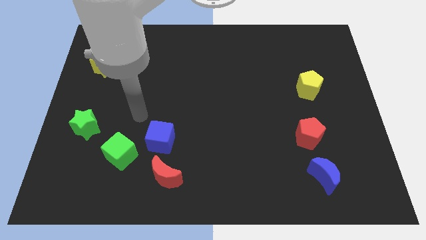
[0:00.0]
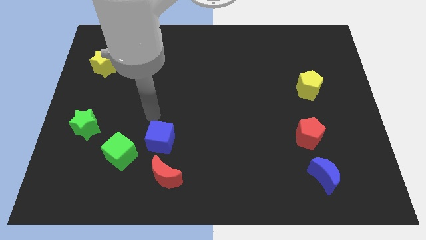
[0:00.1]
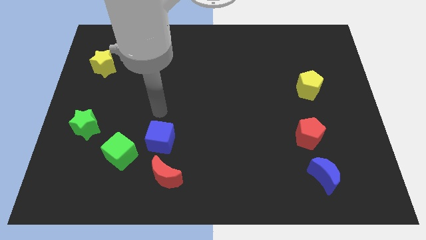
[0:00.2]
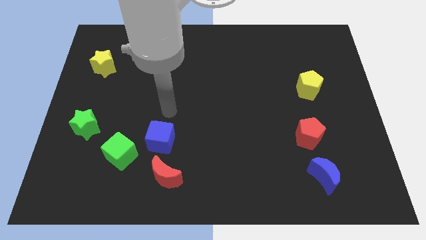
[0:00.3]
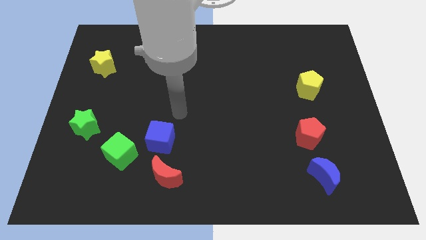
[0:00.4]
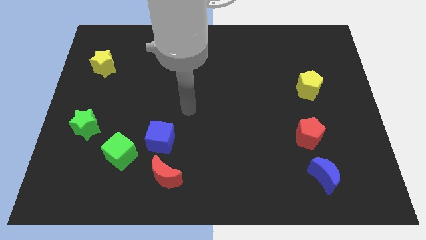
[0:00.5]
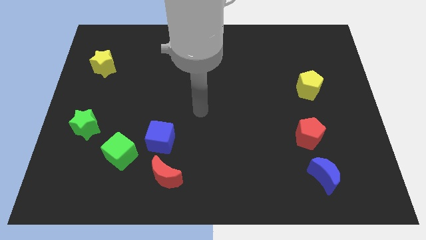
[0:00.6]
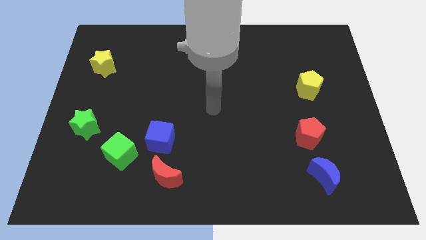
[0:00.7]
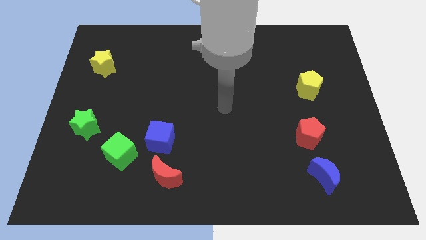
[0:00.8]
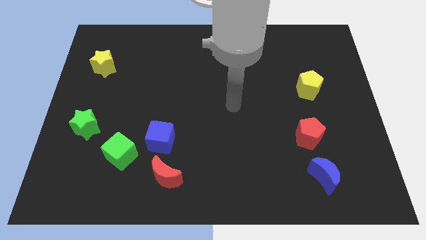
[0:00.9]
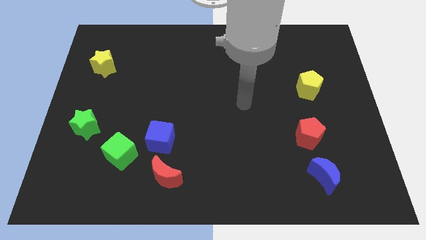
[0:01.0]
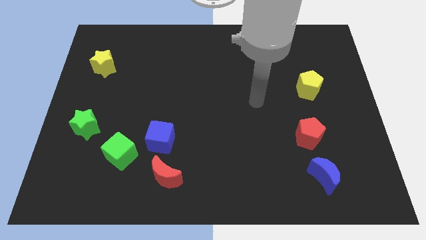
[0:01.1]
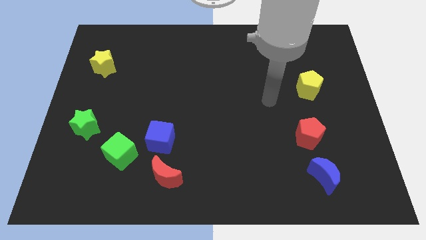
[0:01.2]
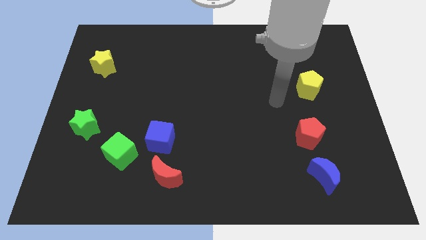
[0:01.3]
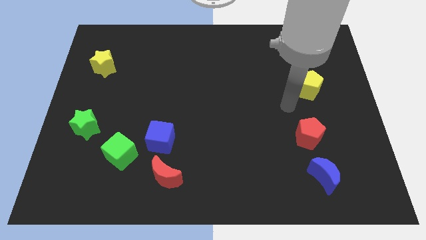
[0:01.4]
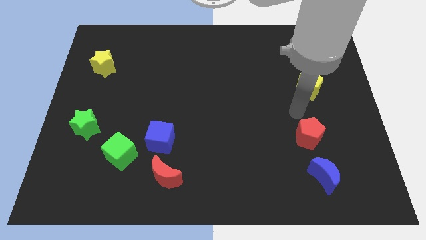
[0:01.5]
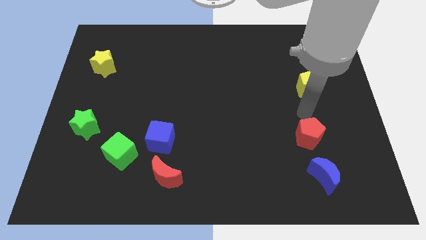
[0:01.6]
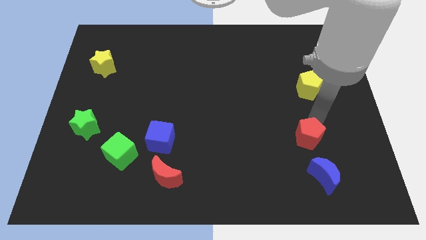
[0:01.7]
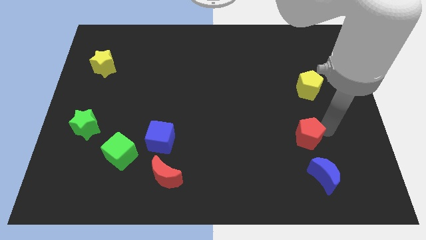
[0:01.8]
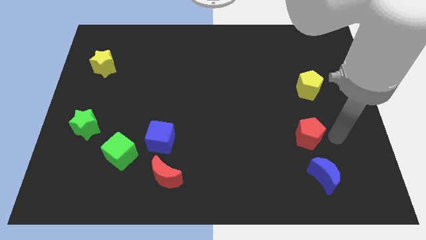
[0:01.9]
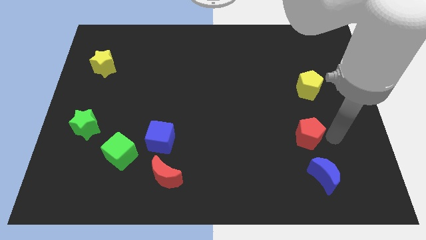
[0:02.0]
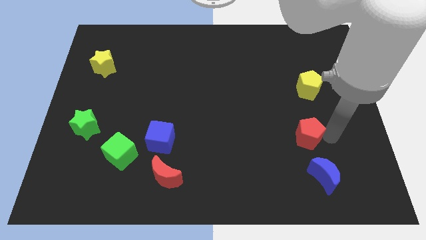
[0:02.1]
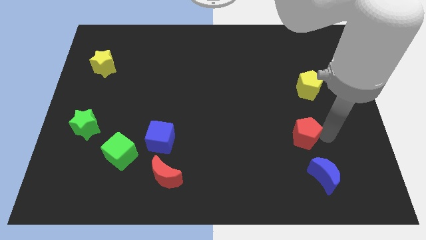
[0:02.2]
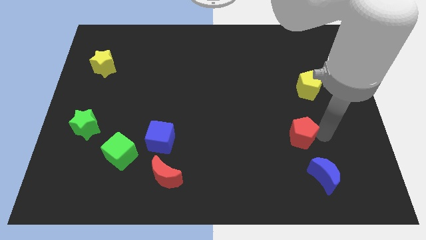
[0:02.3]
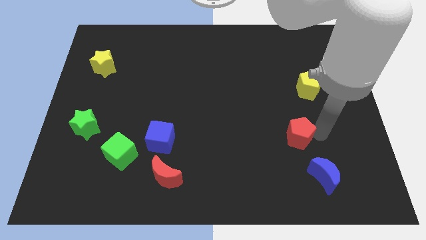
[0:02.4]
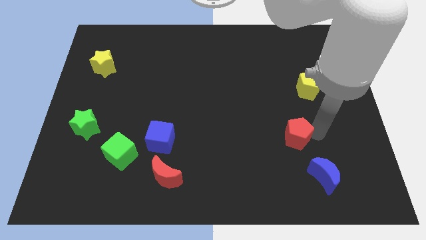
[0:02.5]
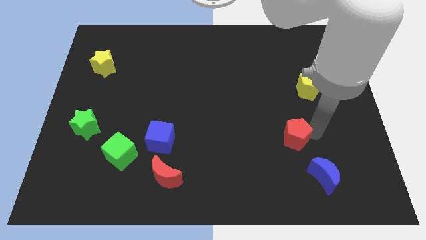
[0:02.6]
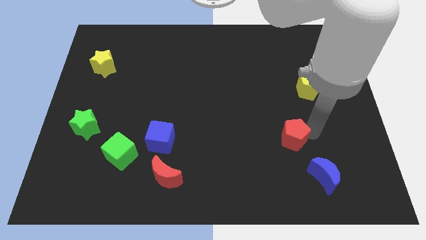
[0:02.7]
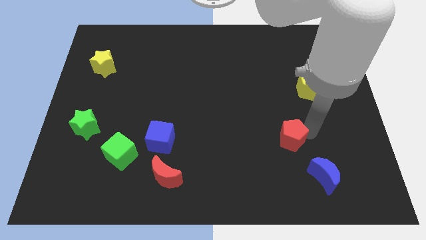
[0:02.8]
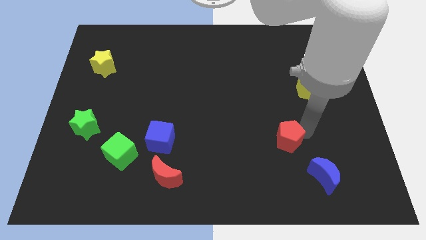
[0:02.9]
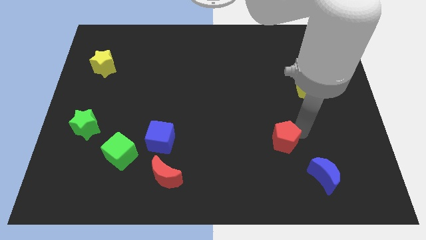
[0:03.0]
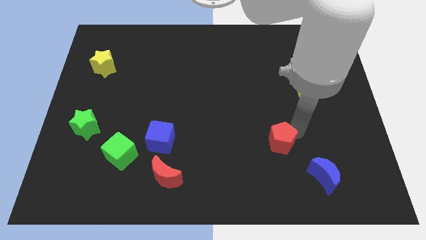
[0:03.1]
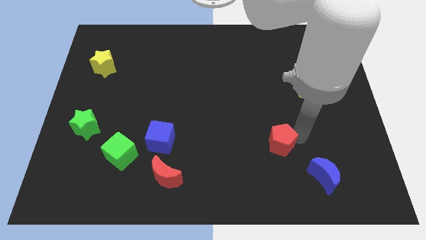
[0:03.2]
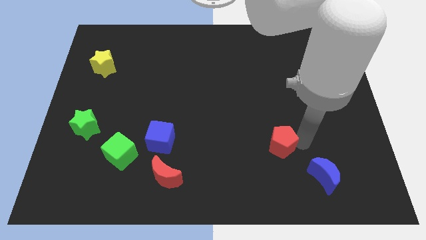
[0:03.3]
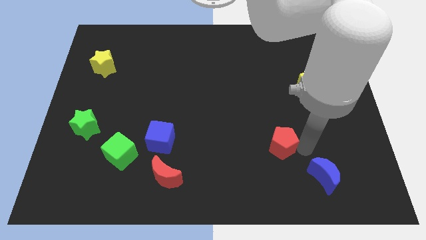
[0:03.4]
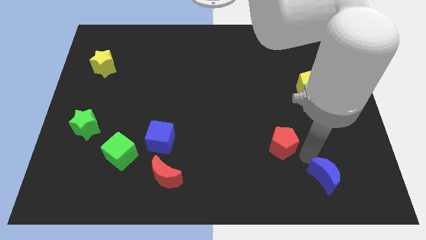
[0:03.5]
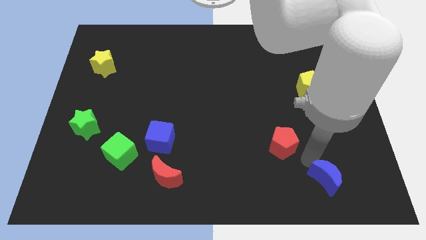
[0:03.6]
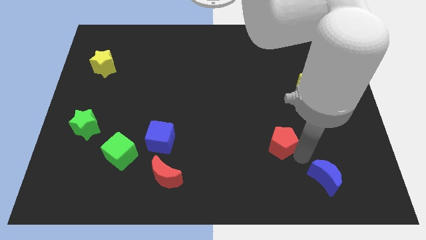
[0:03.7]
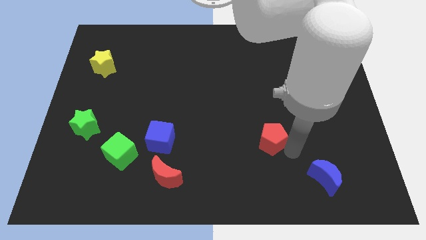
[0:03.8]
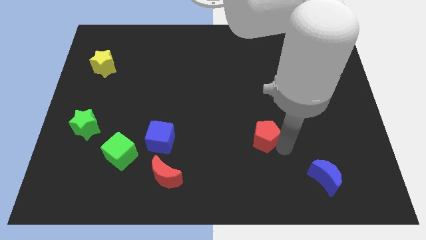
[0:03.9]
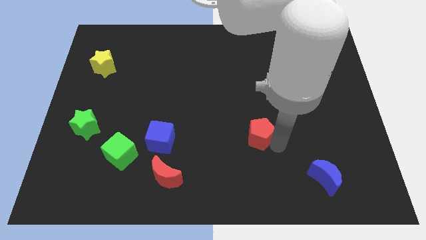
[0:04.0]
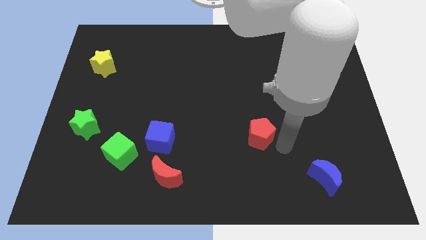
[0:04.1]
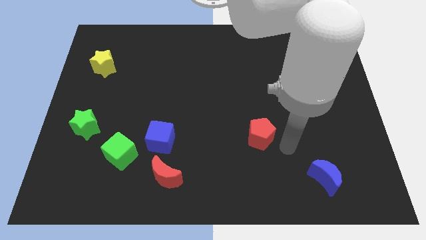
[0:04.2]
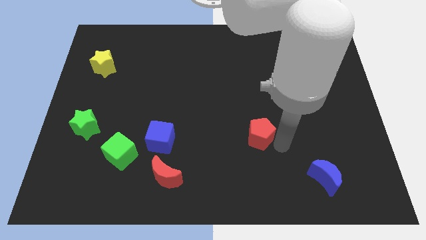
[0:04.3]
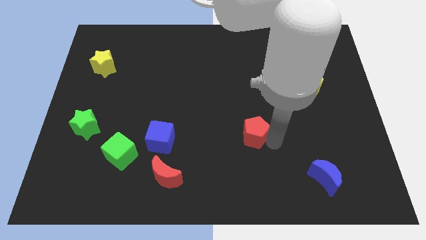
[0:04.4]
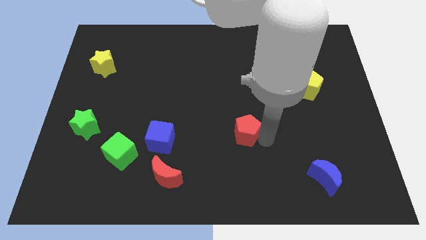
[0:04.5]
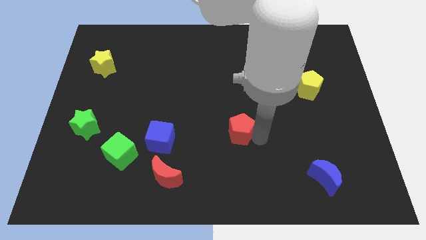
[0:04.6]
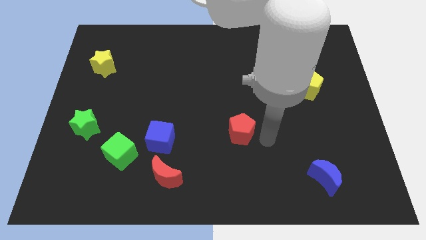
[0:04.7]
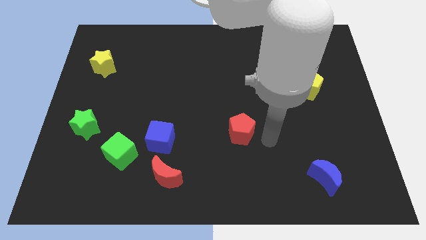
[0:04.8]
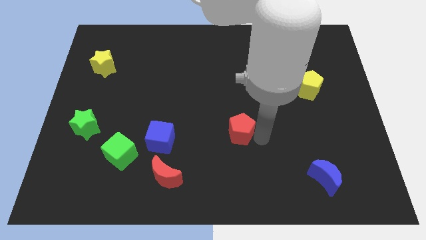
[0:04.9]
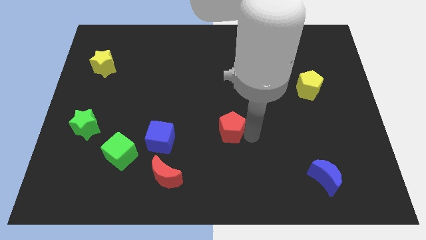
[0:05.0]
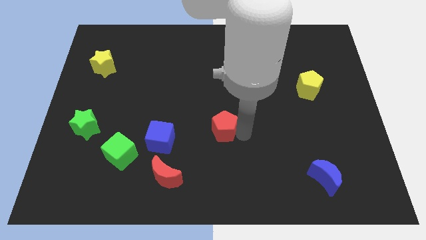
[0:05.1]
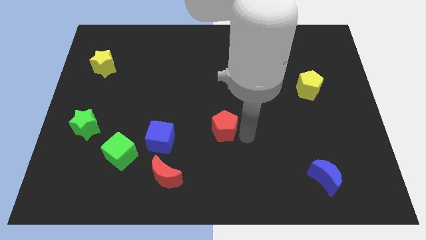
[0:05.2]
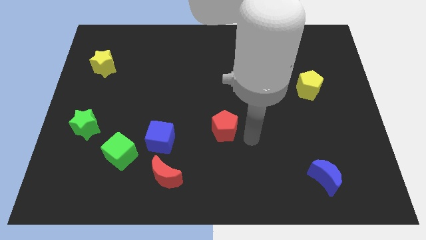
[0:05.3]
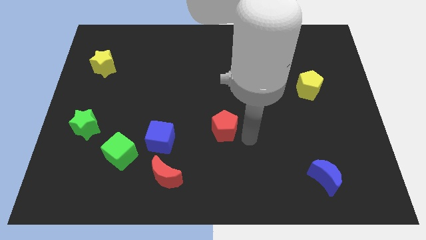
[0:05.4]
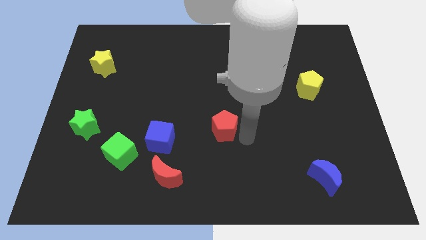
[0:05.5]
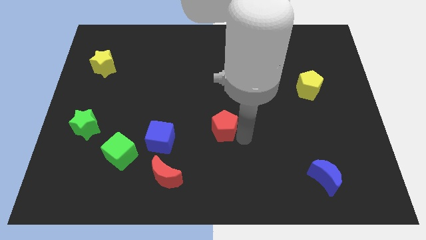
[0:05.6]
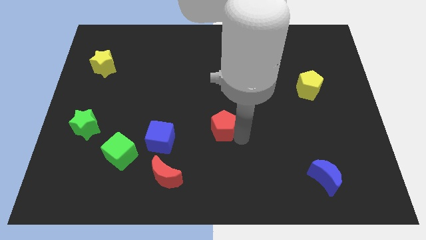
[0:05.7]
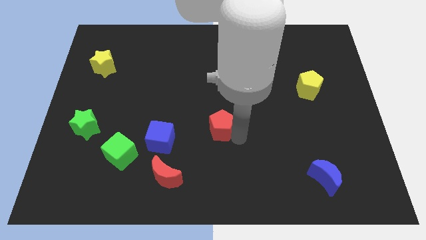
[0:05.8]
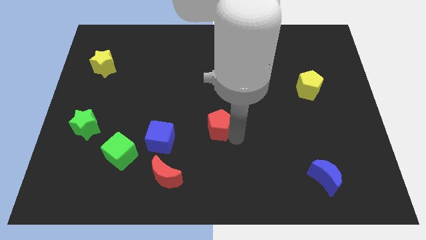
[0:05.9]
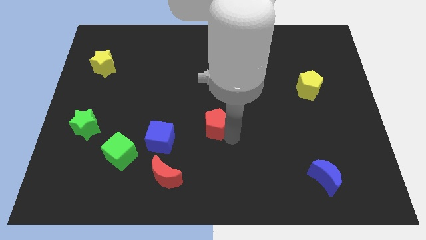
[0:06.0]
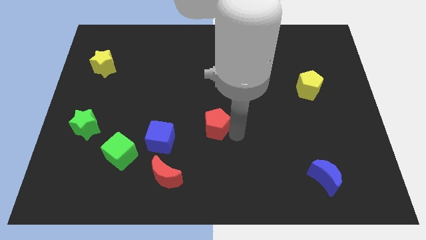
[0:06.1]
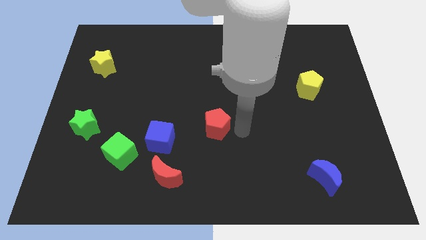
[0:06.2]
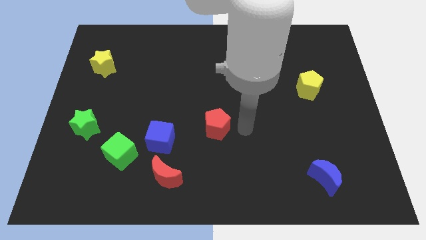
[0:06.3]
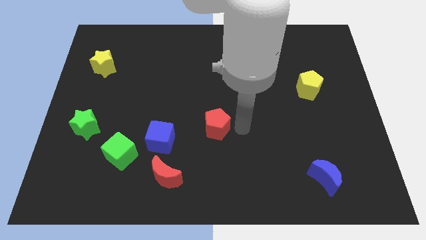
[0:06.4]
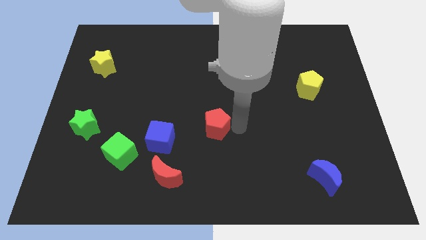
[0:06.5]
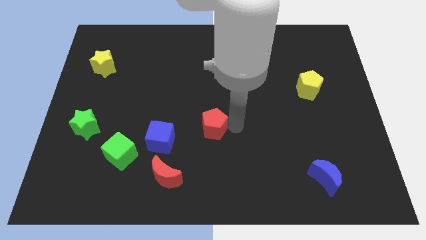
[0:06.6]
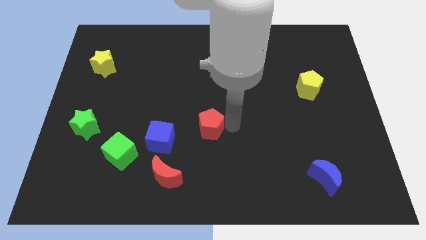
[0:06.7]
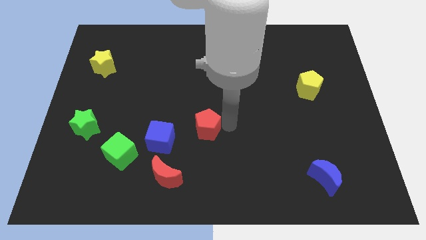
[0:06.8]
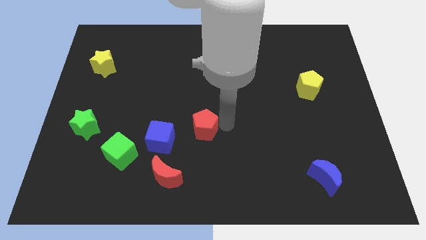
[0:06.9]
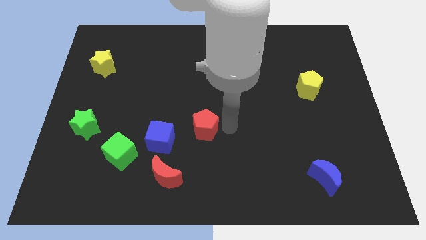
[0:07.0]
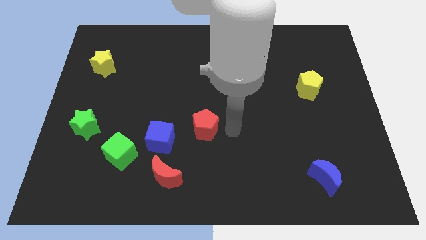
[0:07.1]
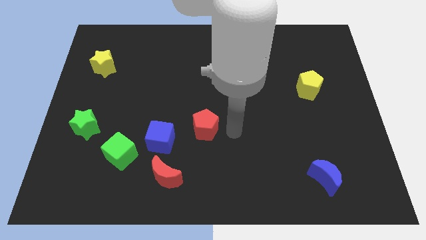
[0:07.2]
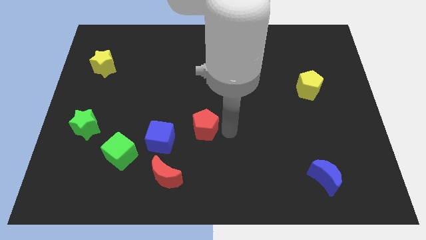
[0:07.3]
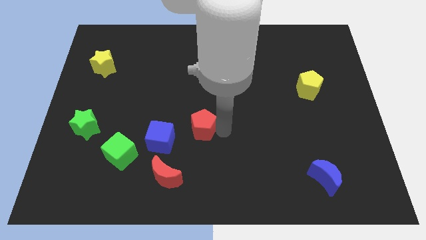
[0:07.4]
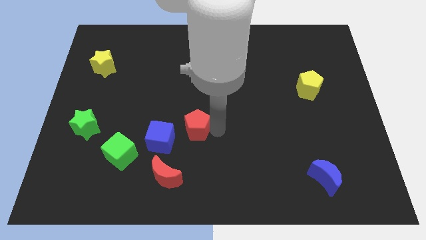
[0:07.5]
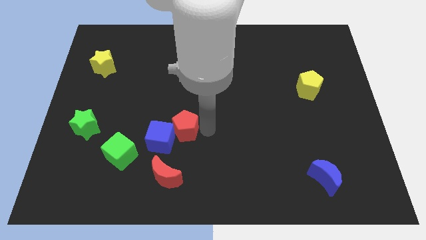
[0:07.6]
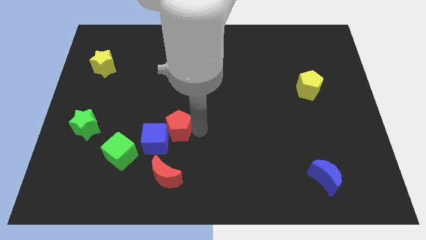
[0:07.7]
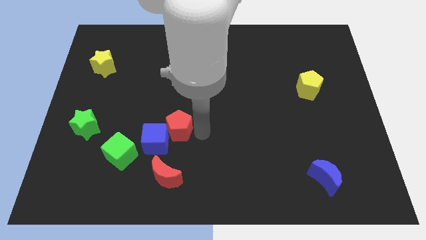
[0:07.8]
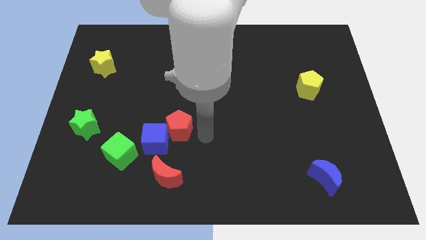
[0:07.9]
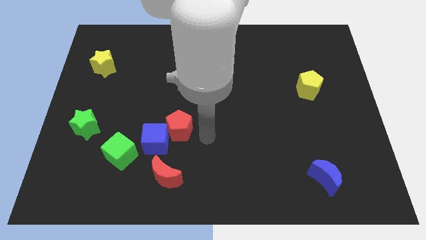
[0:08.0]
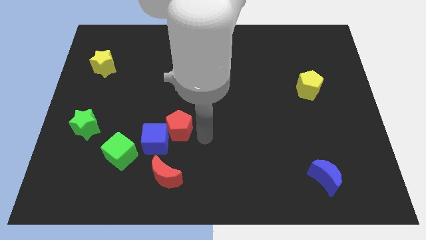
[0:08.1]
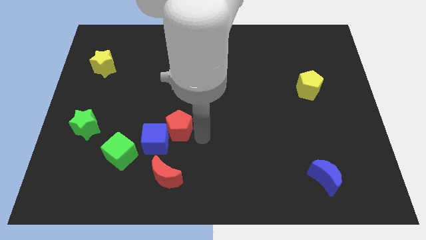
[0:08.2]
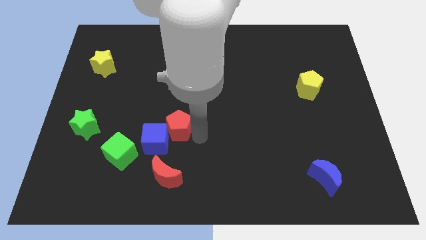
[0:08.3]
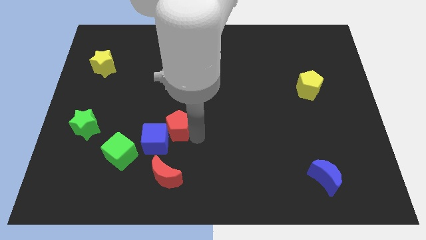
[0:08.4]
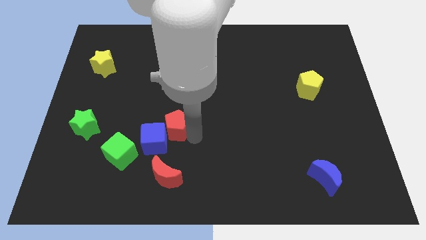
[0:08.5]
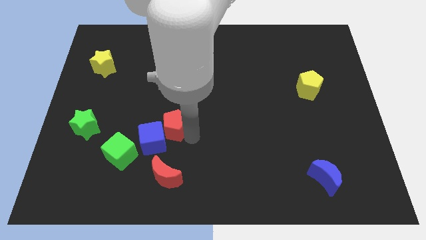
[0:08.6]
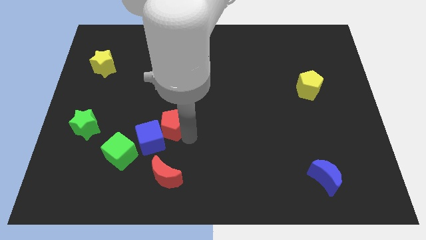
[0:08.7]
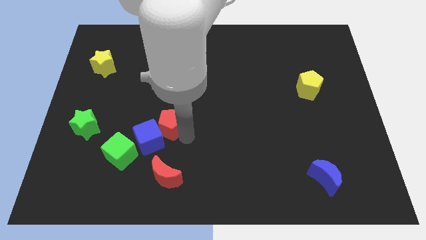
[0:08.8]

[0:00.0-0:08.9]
move the red pentagon to the top right of the green cube
